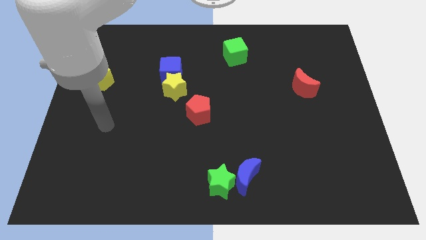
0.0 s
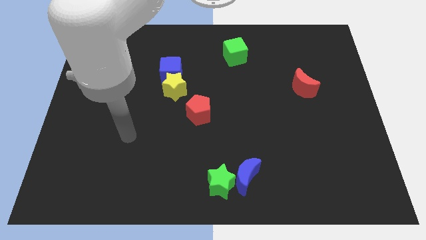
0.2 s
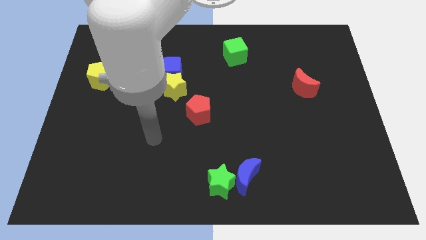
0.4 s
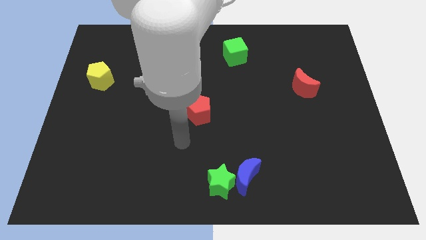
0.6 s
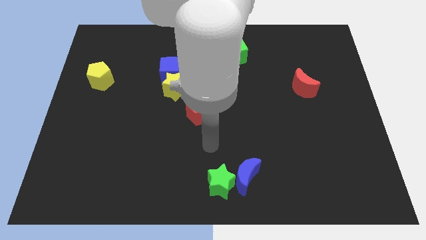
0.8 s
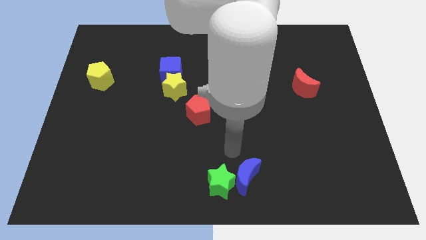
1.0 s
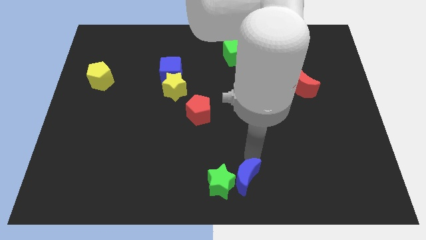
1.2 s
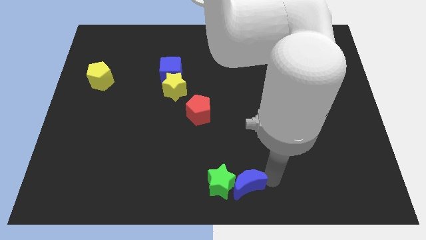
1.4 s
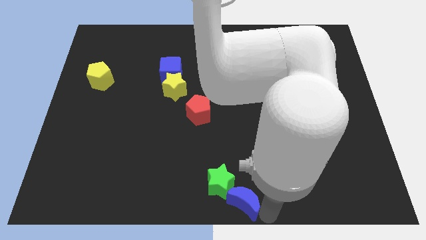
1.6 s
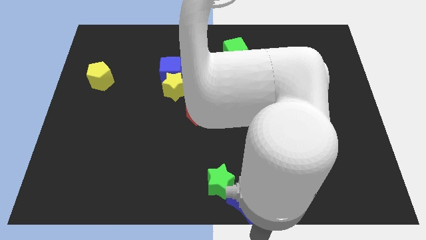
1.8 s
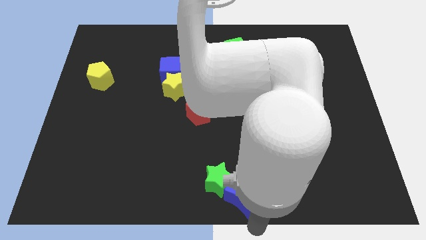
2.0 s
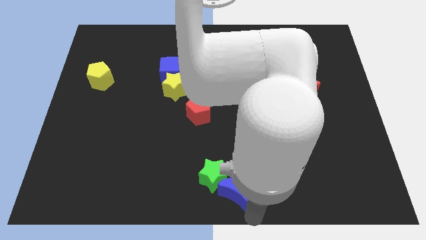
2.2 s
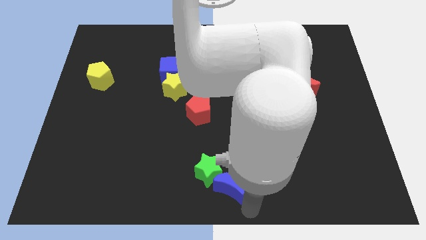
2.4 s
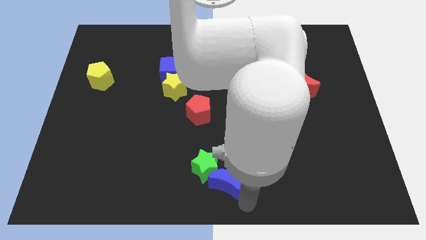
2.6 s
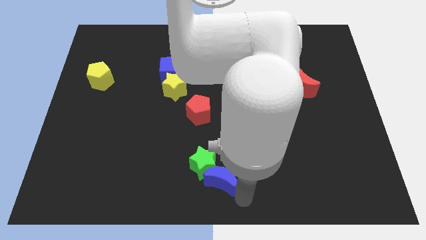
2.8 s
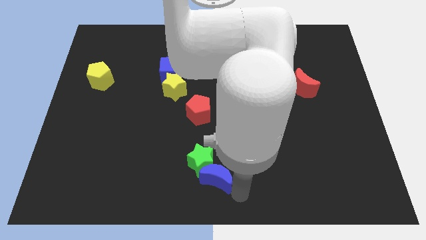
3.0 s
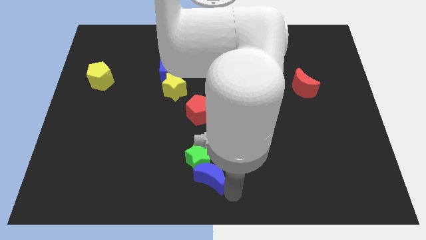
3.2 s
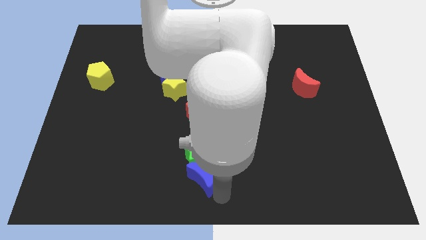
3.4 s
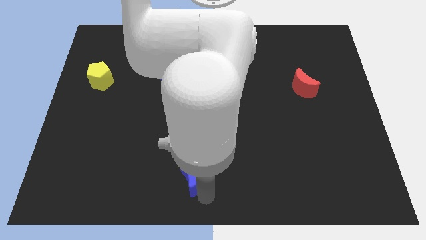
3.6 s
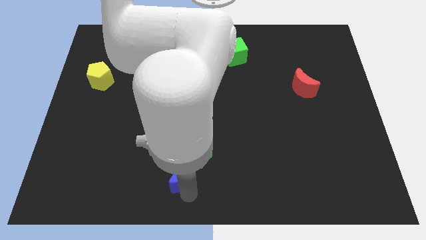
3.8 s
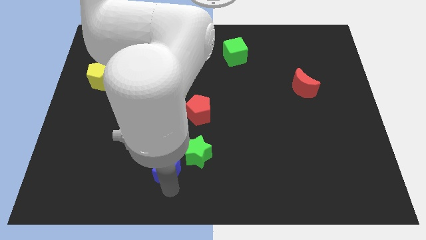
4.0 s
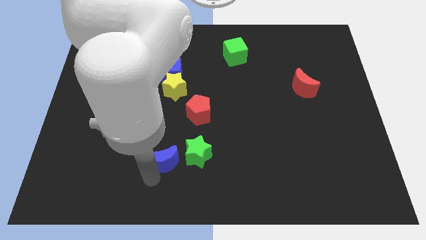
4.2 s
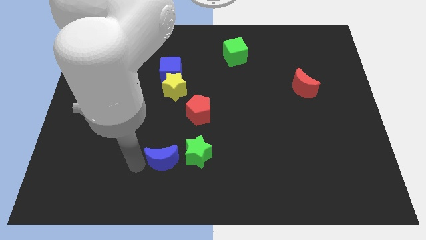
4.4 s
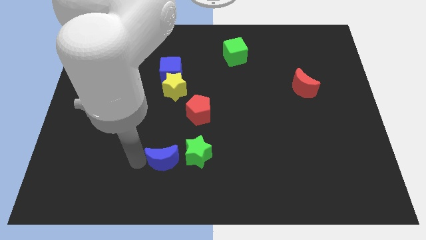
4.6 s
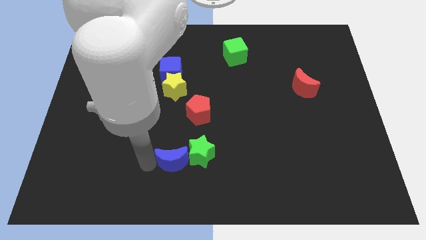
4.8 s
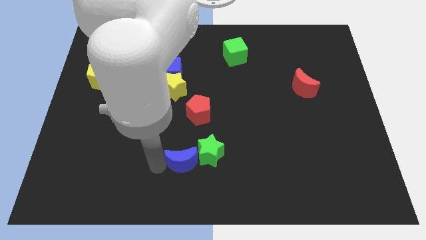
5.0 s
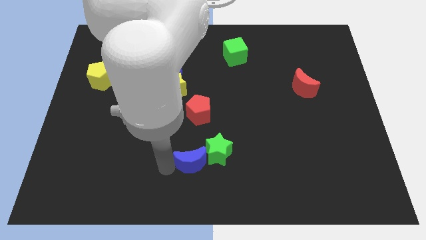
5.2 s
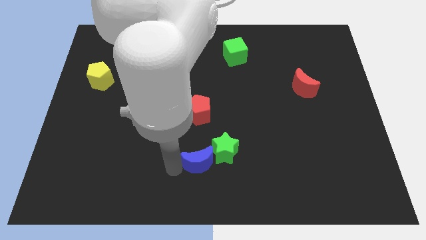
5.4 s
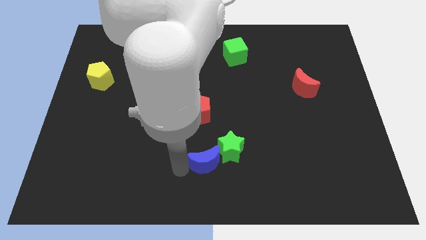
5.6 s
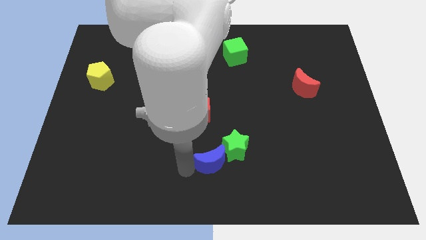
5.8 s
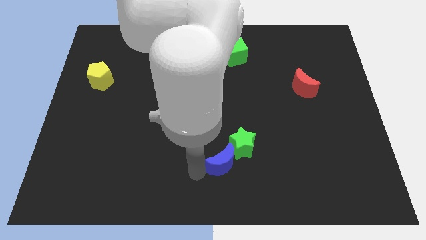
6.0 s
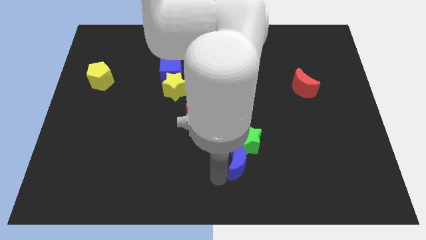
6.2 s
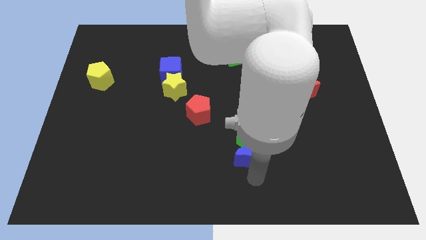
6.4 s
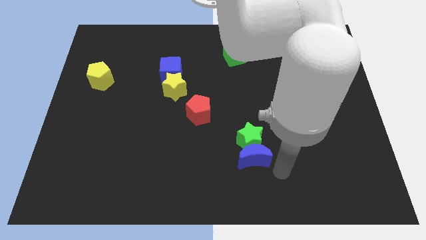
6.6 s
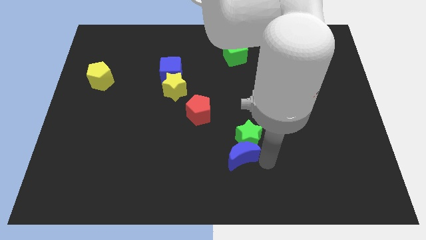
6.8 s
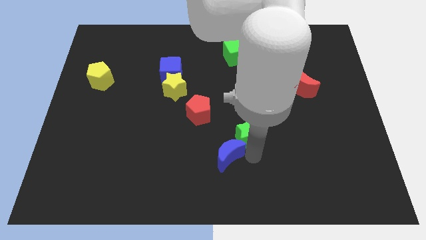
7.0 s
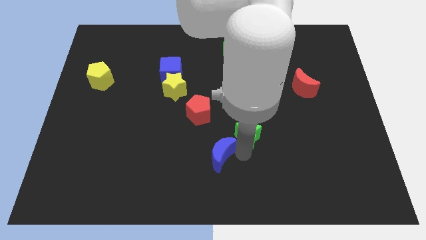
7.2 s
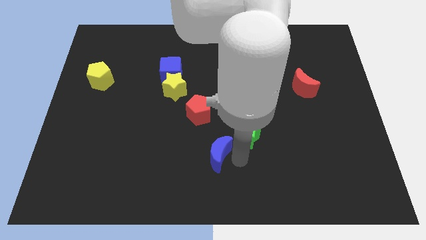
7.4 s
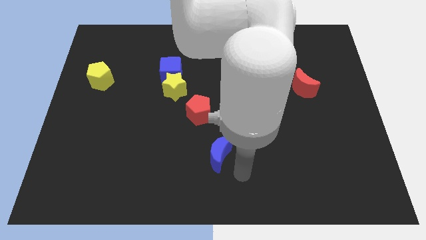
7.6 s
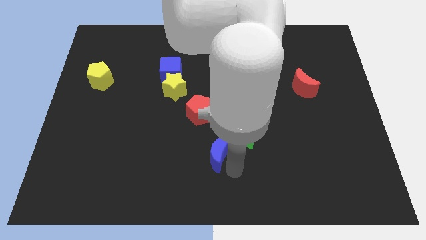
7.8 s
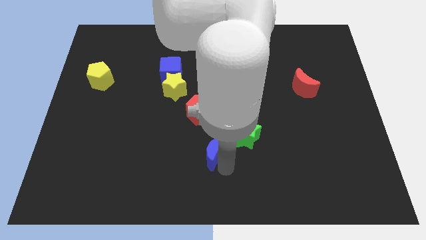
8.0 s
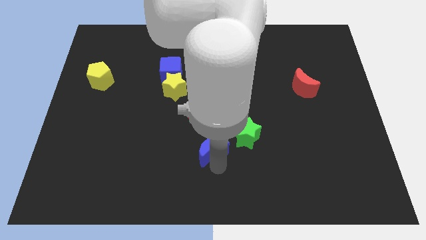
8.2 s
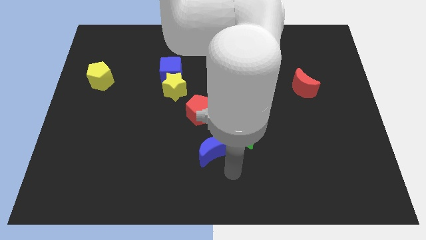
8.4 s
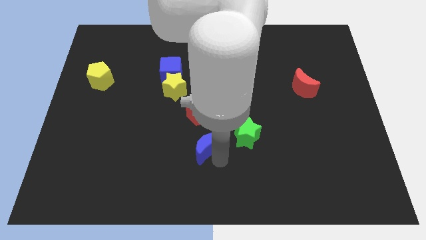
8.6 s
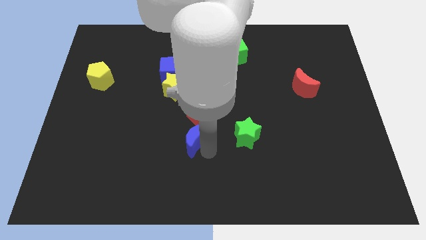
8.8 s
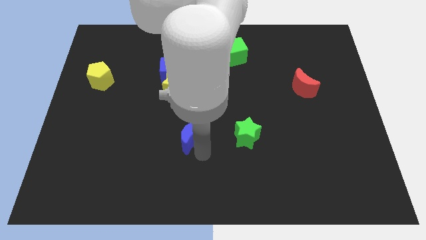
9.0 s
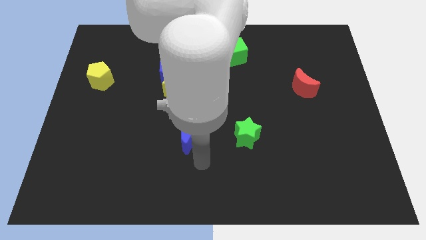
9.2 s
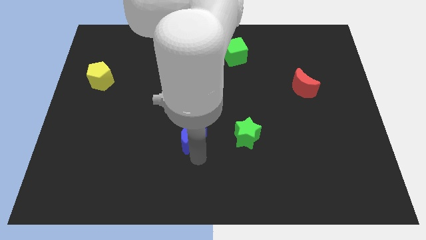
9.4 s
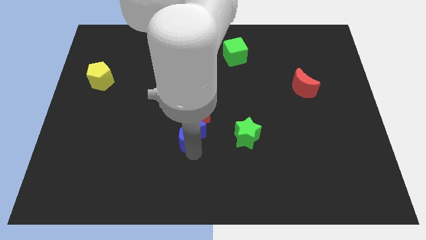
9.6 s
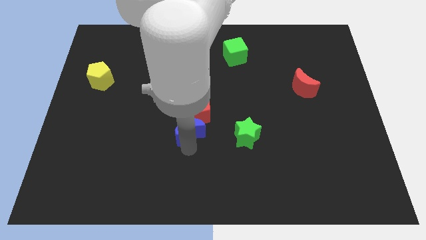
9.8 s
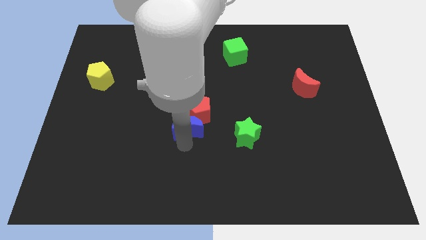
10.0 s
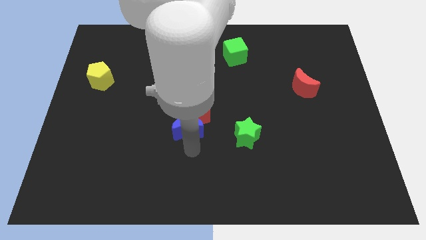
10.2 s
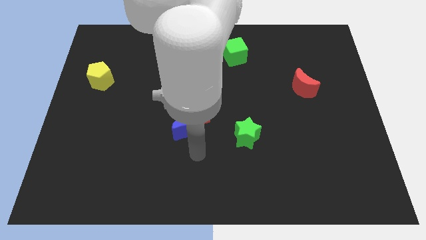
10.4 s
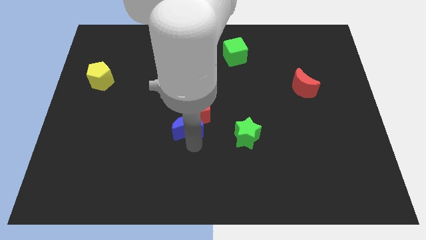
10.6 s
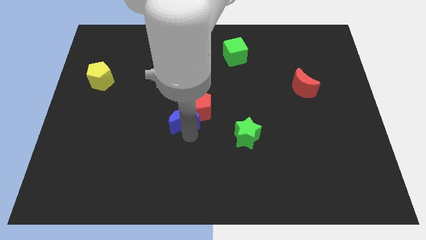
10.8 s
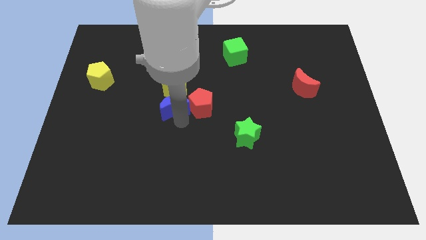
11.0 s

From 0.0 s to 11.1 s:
slide the blue moon next to the yellow star

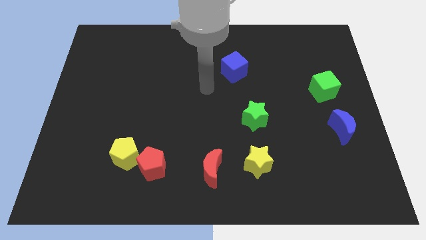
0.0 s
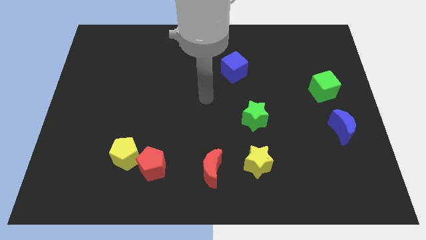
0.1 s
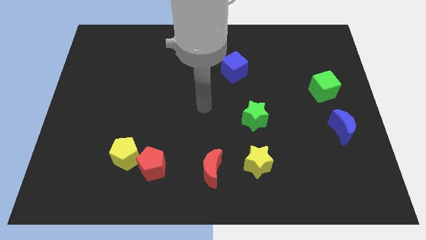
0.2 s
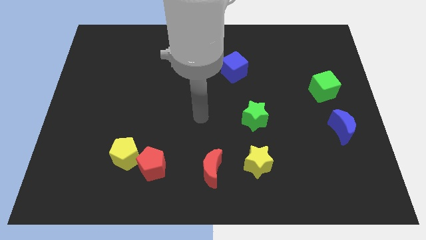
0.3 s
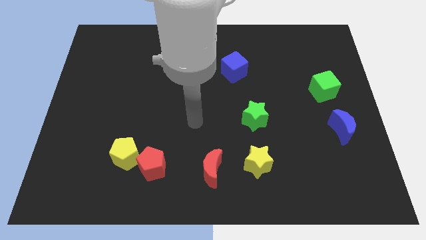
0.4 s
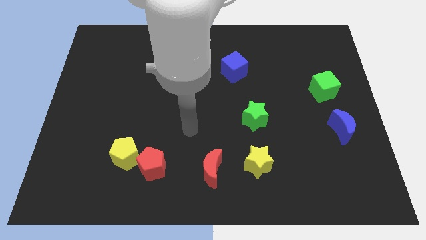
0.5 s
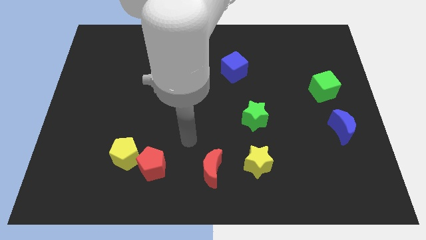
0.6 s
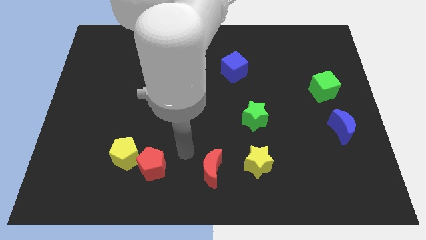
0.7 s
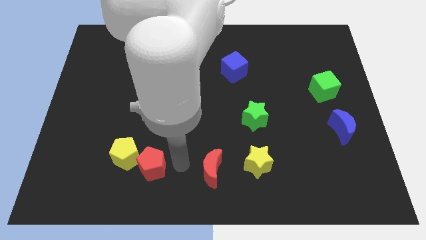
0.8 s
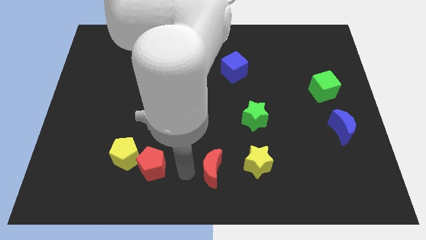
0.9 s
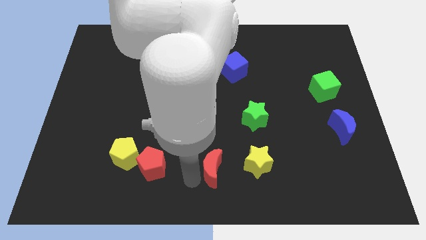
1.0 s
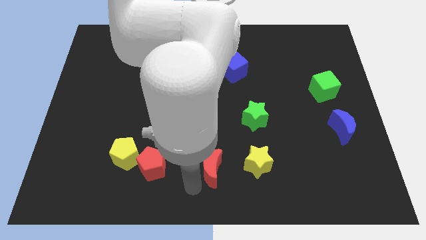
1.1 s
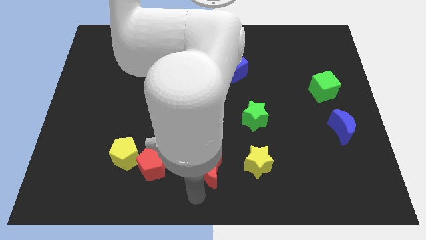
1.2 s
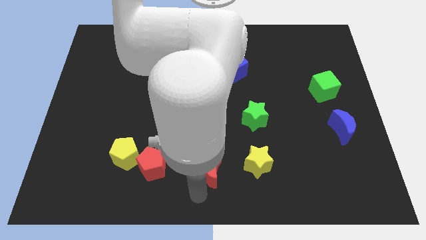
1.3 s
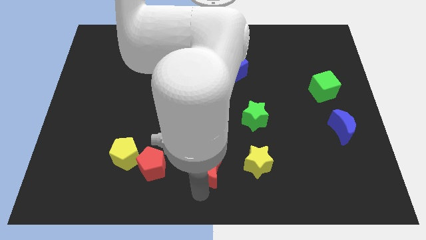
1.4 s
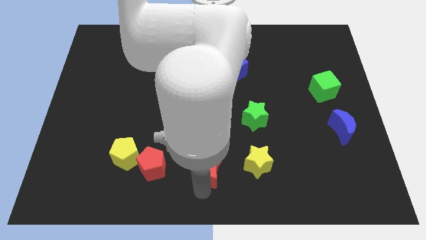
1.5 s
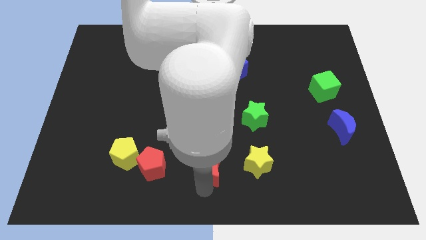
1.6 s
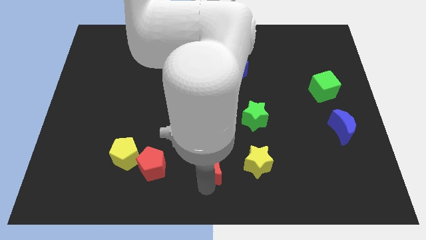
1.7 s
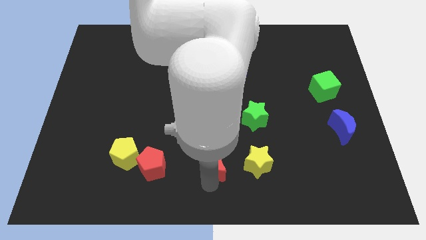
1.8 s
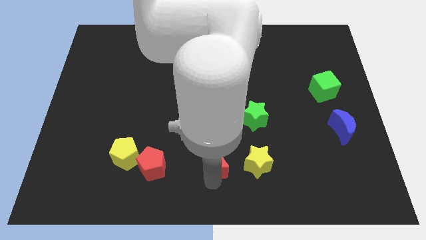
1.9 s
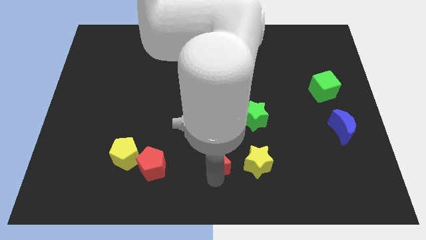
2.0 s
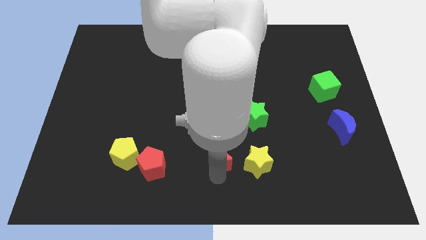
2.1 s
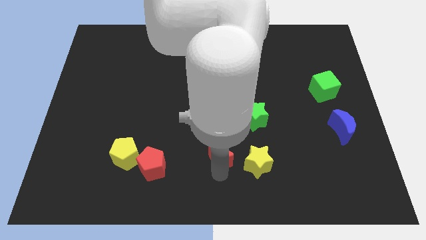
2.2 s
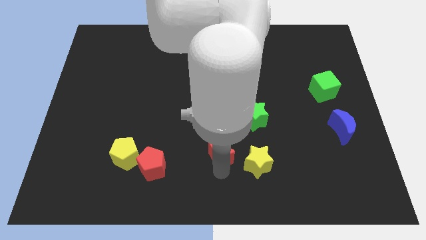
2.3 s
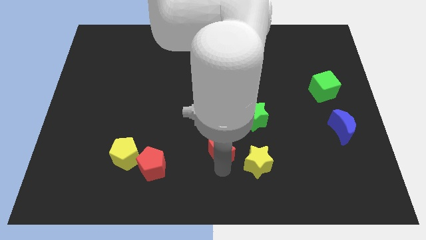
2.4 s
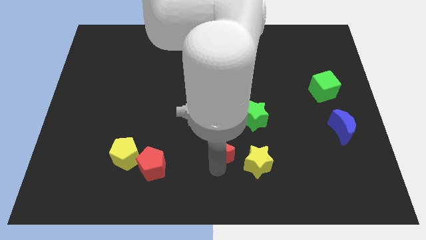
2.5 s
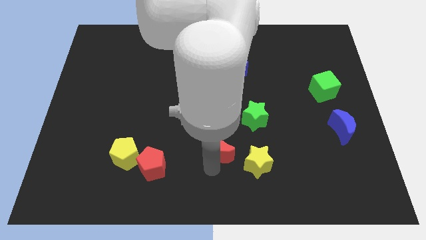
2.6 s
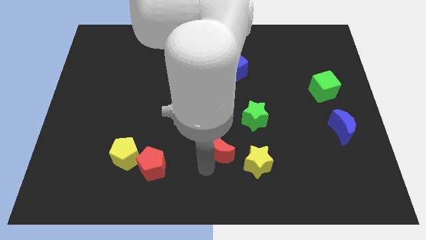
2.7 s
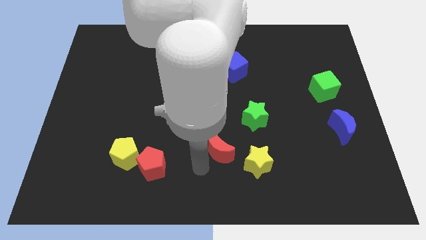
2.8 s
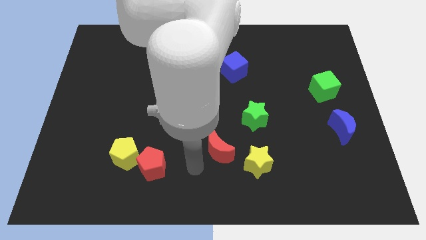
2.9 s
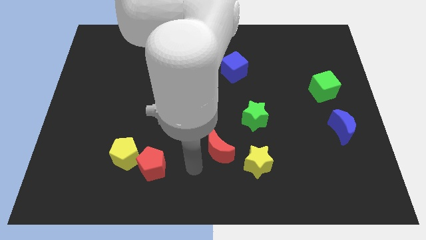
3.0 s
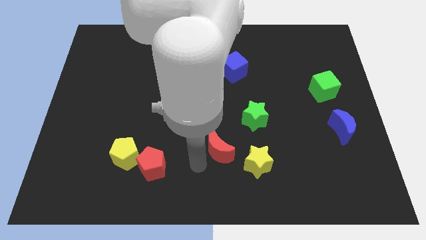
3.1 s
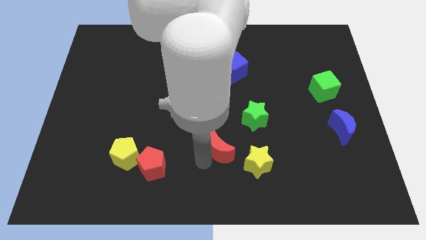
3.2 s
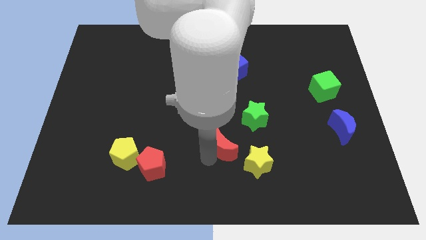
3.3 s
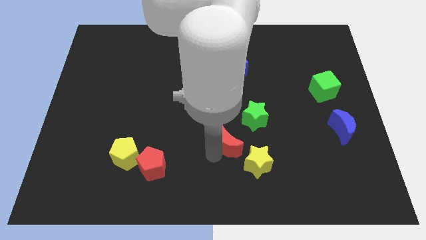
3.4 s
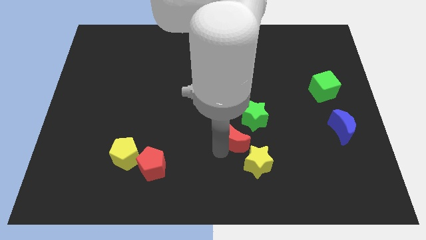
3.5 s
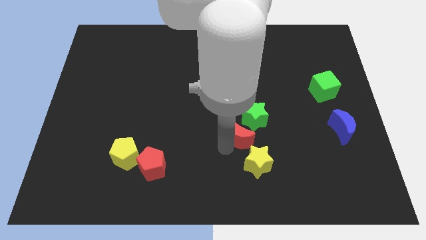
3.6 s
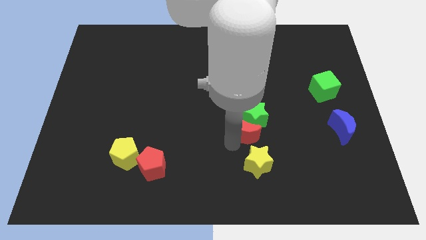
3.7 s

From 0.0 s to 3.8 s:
put the red moon to the green star
